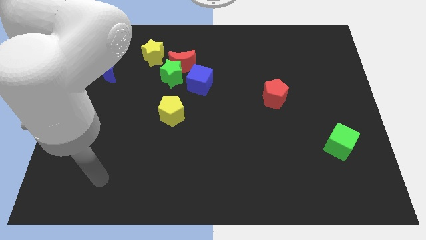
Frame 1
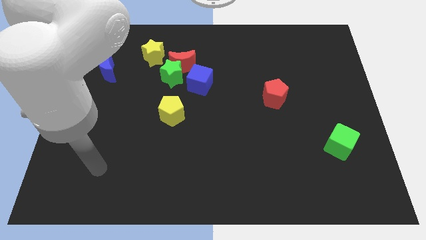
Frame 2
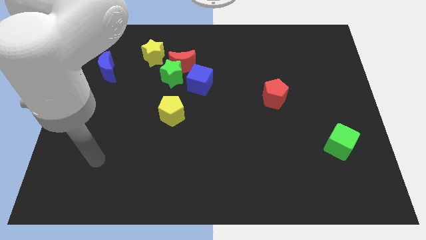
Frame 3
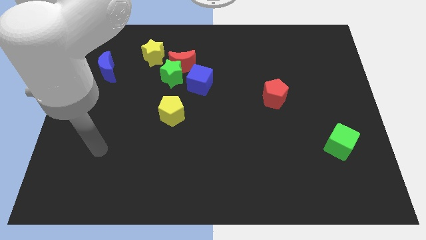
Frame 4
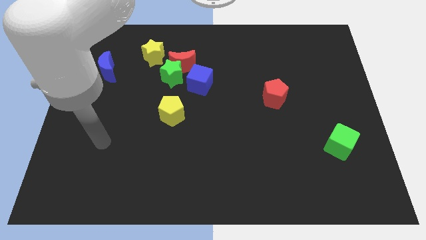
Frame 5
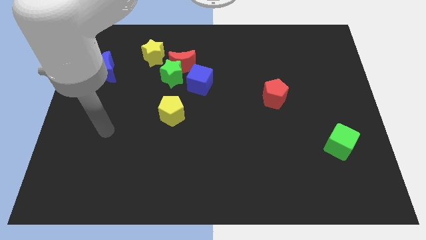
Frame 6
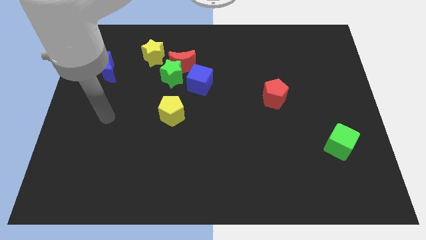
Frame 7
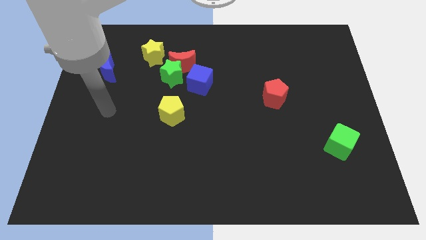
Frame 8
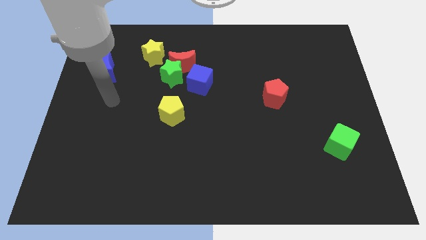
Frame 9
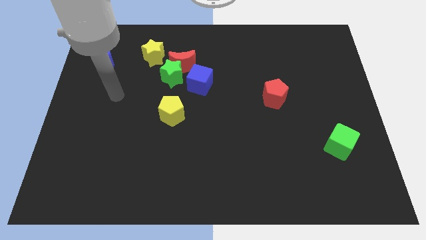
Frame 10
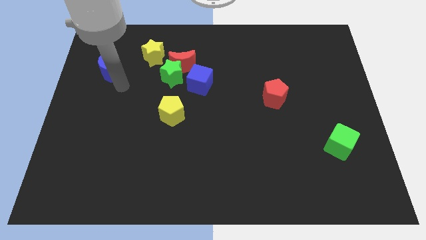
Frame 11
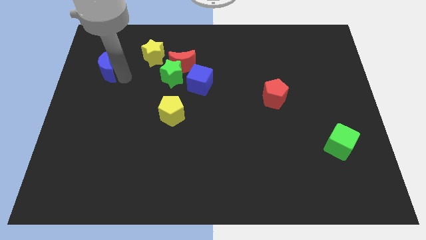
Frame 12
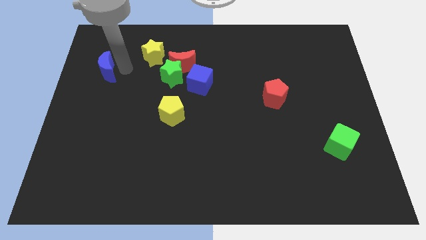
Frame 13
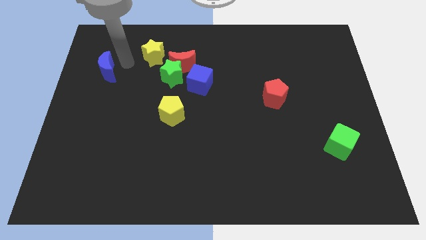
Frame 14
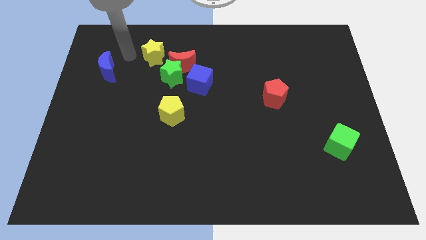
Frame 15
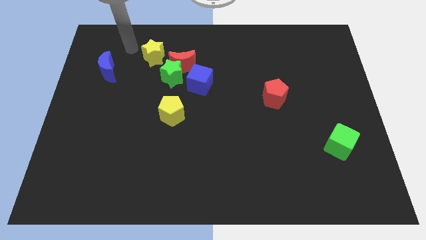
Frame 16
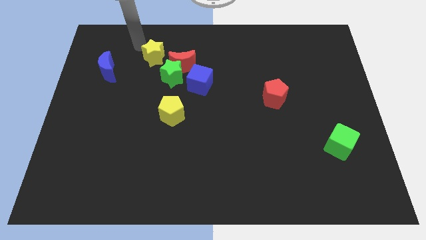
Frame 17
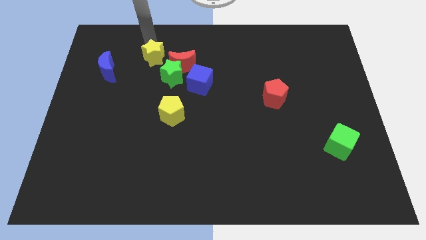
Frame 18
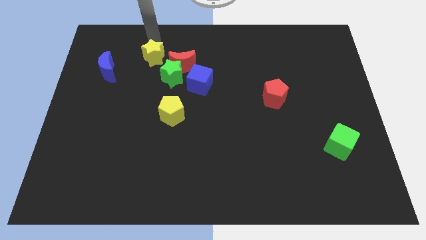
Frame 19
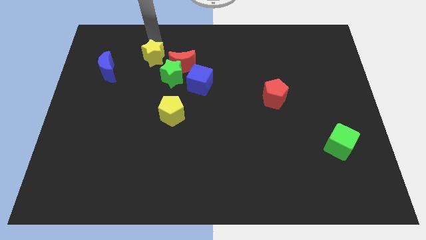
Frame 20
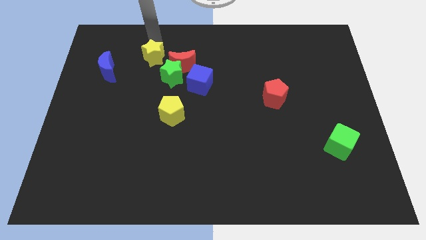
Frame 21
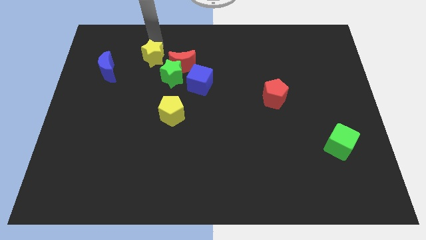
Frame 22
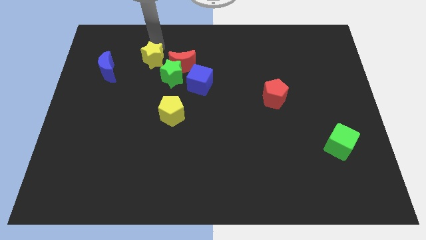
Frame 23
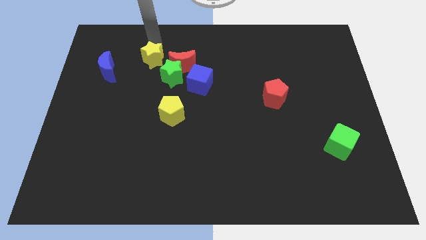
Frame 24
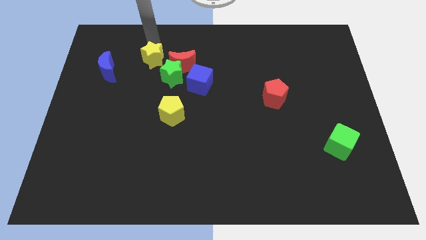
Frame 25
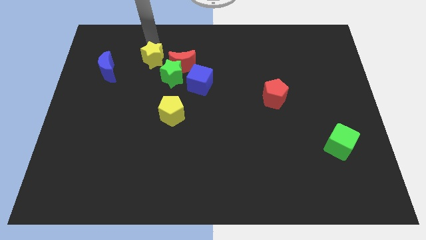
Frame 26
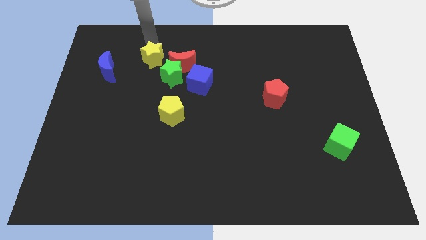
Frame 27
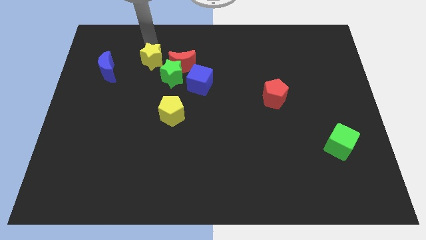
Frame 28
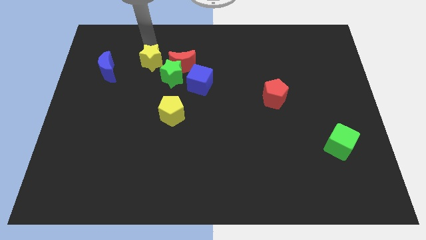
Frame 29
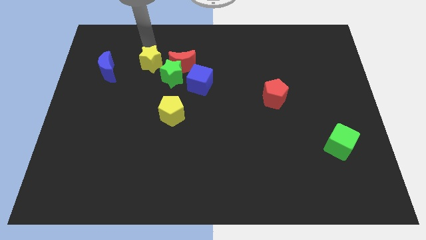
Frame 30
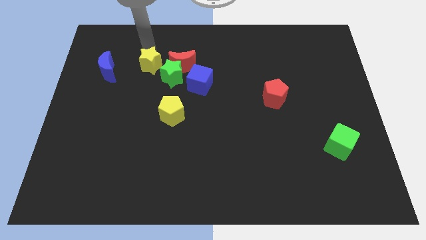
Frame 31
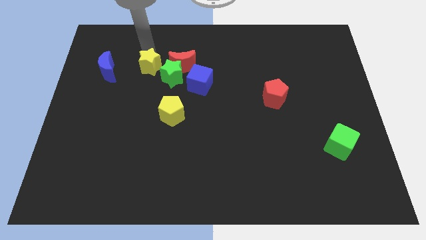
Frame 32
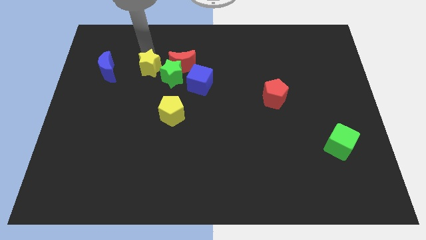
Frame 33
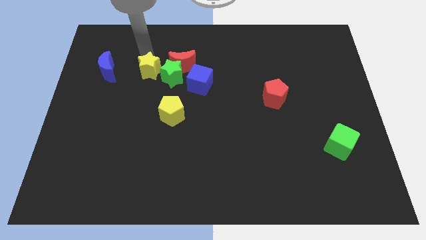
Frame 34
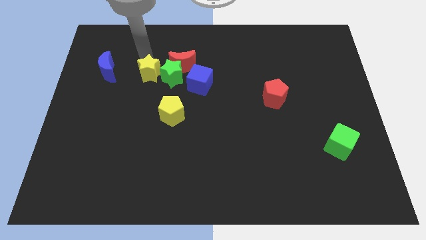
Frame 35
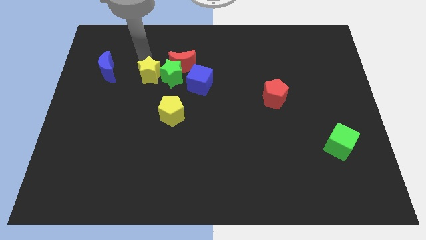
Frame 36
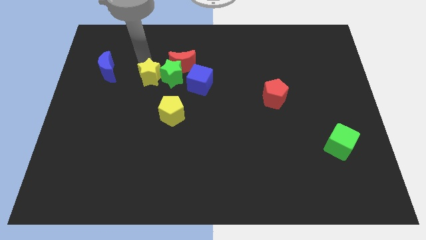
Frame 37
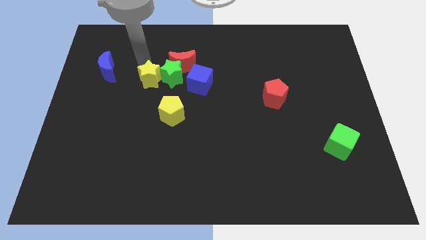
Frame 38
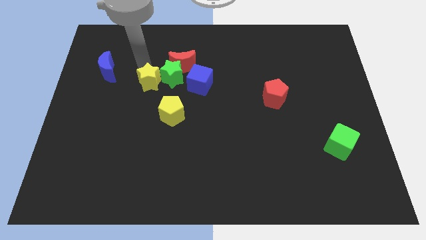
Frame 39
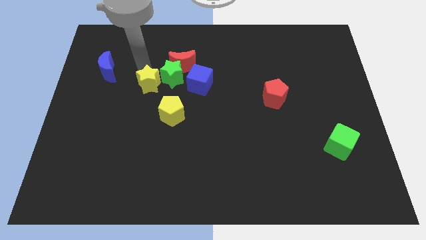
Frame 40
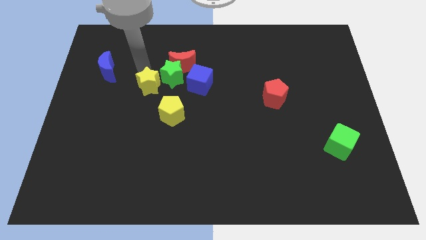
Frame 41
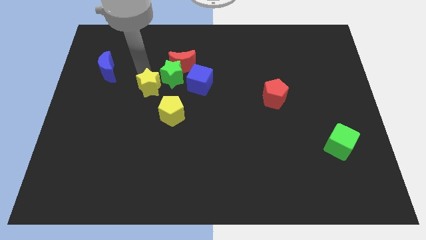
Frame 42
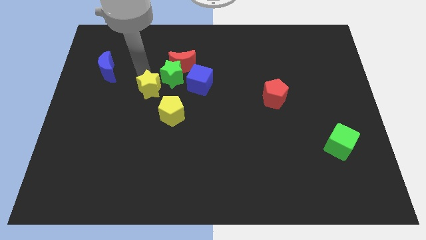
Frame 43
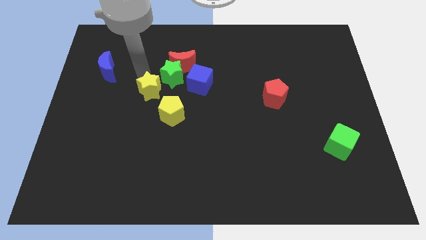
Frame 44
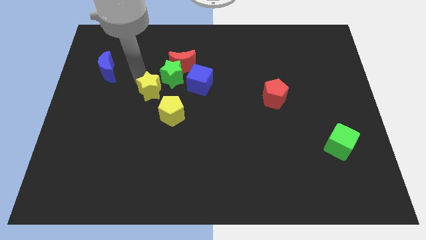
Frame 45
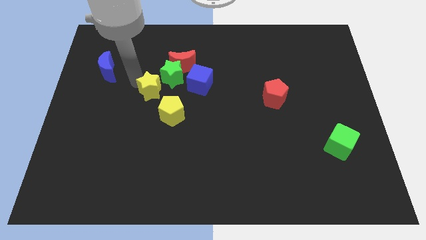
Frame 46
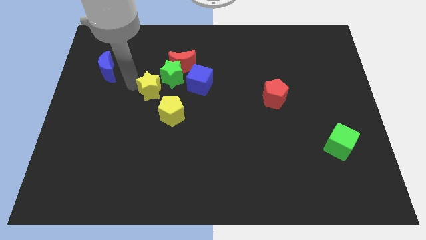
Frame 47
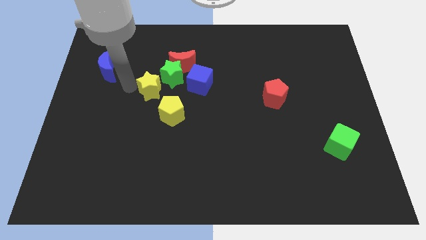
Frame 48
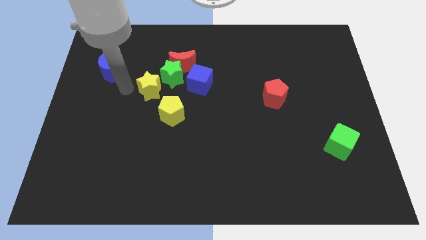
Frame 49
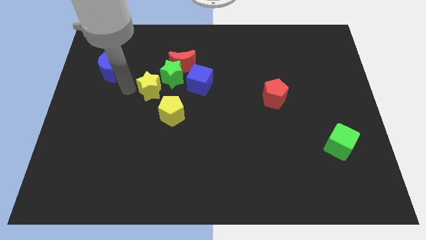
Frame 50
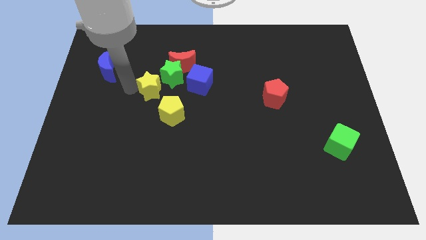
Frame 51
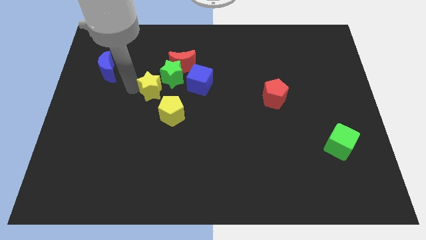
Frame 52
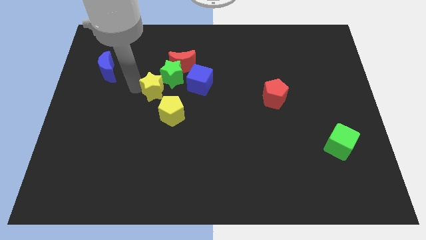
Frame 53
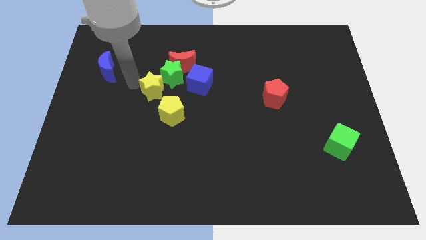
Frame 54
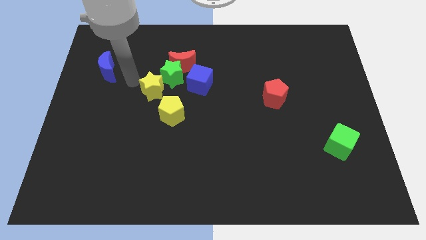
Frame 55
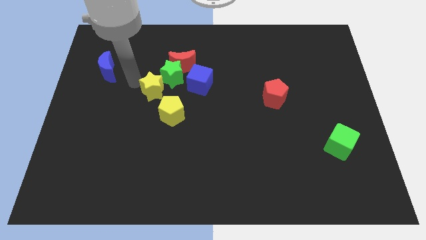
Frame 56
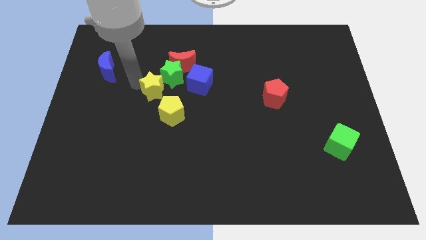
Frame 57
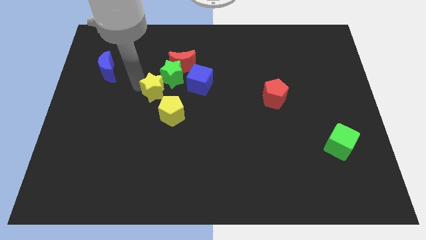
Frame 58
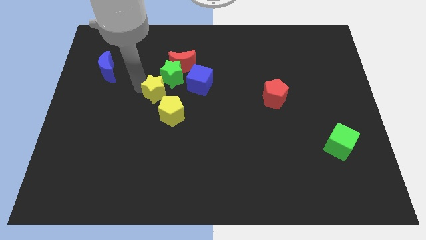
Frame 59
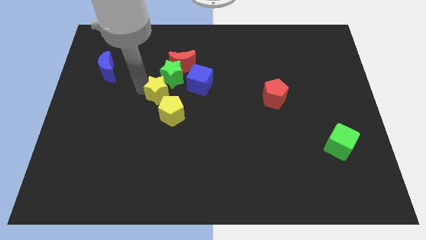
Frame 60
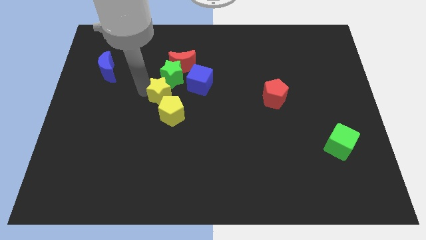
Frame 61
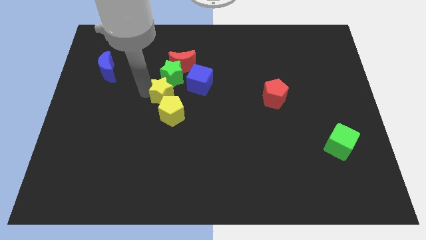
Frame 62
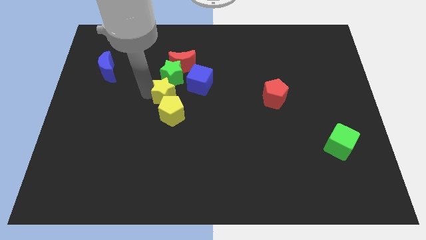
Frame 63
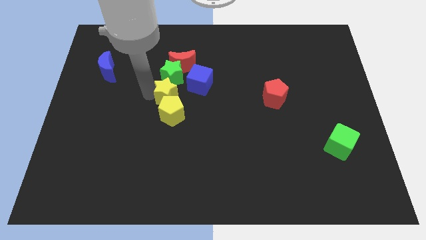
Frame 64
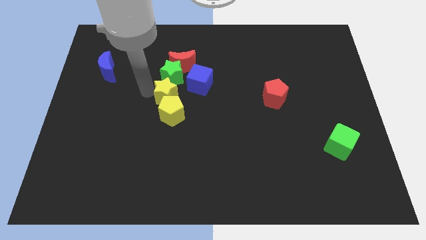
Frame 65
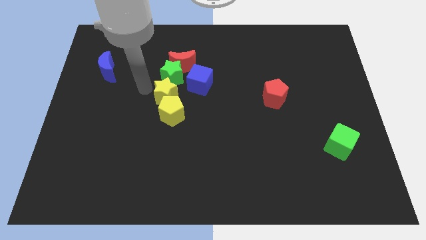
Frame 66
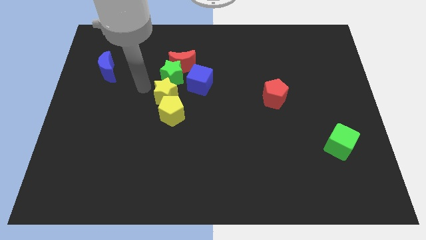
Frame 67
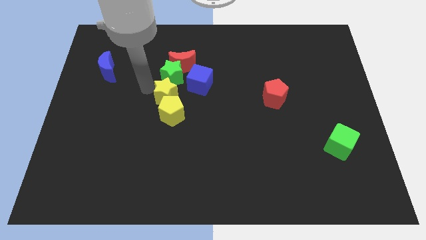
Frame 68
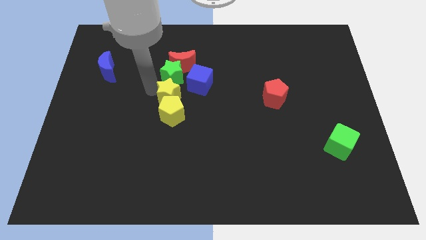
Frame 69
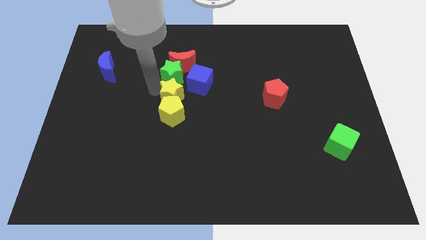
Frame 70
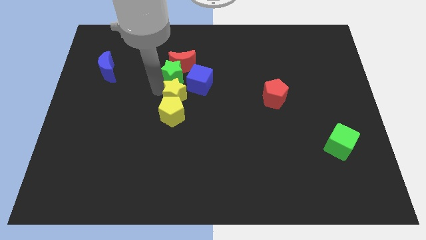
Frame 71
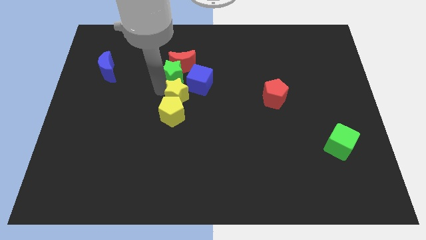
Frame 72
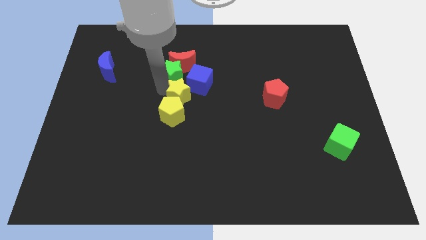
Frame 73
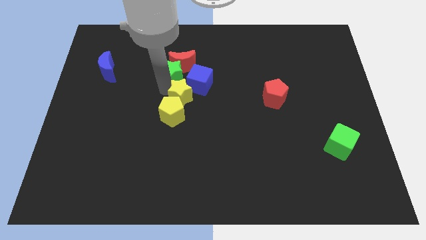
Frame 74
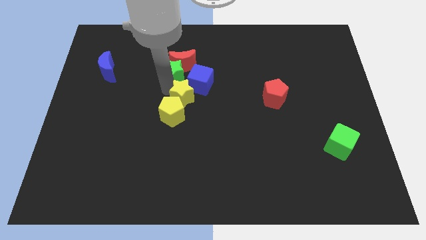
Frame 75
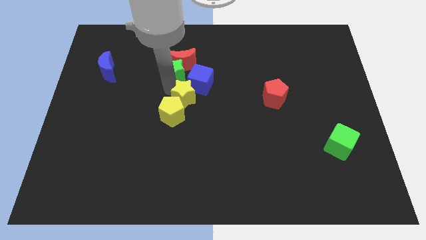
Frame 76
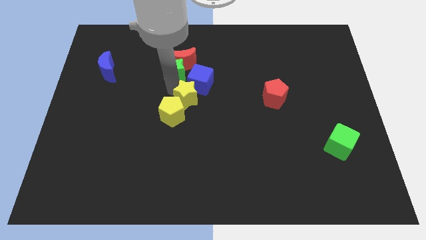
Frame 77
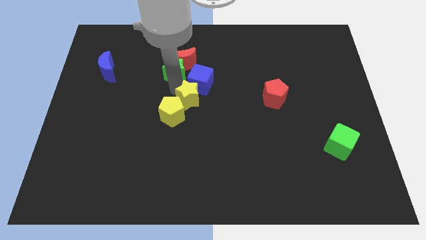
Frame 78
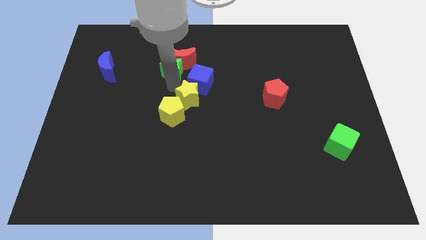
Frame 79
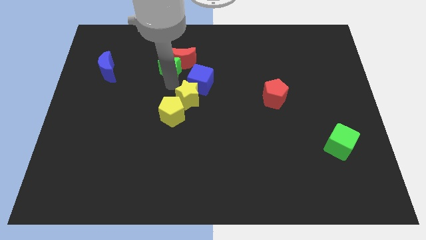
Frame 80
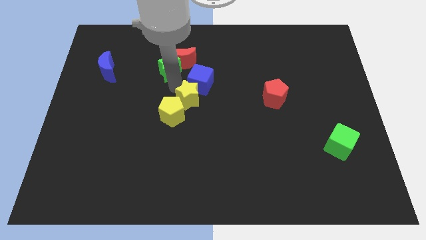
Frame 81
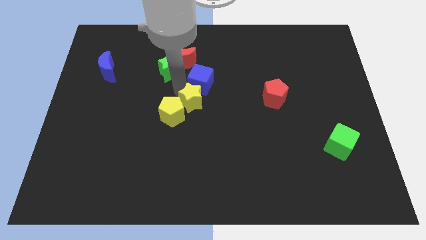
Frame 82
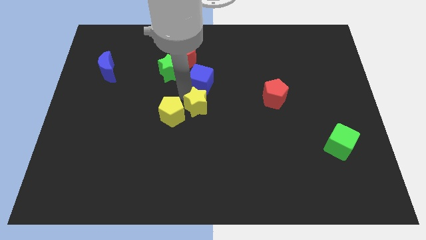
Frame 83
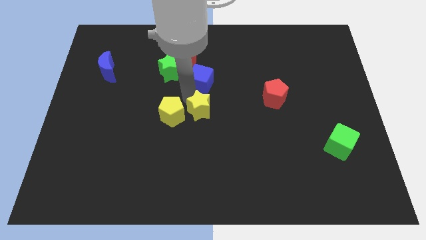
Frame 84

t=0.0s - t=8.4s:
move the yellow star down and right diagonally
